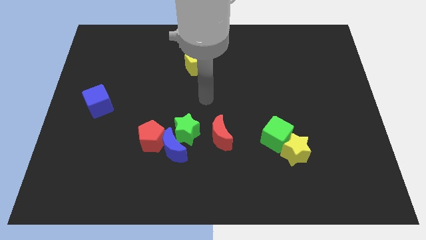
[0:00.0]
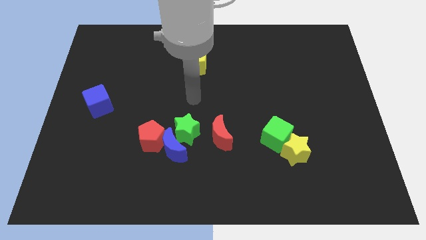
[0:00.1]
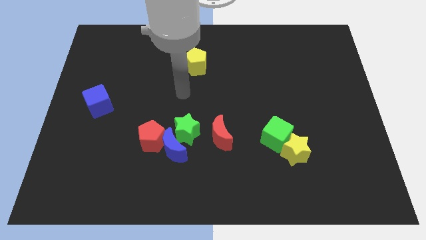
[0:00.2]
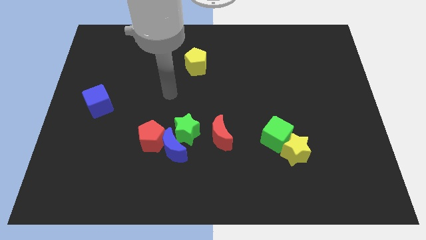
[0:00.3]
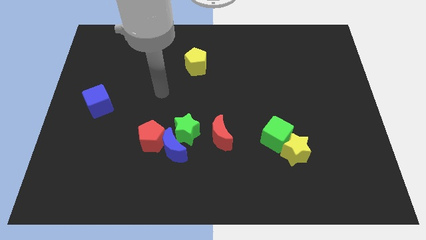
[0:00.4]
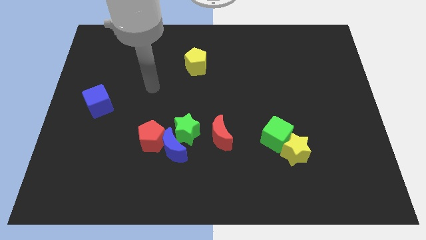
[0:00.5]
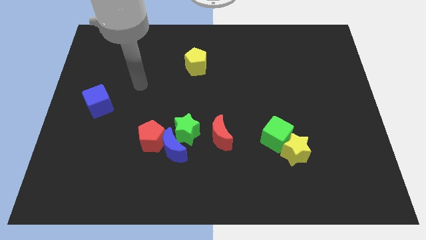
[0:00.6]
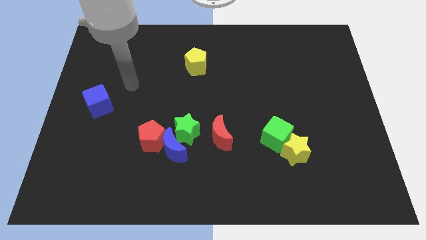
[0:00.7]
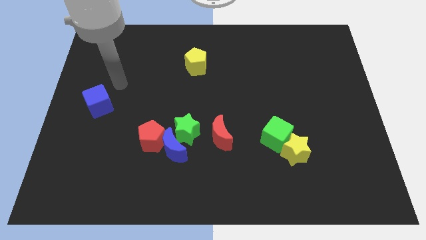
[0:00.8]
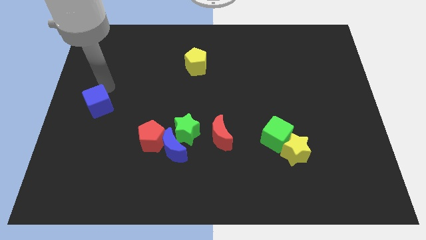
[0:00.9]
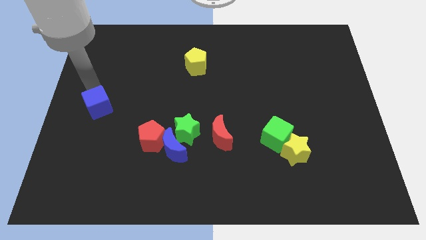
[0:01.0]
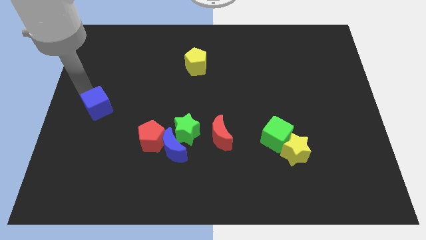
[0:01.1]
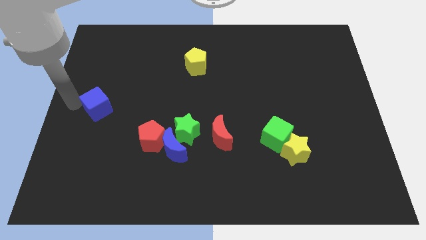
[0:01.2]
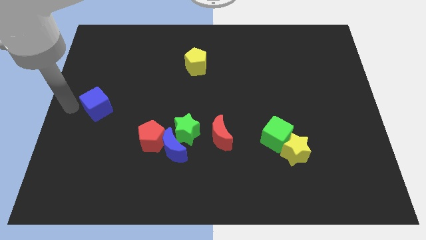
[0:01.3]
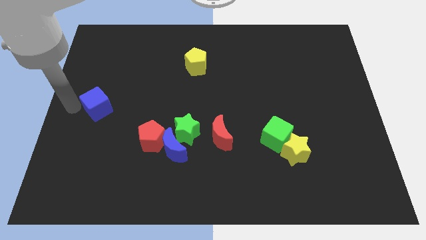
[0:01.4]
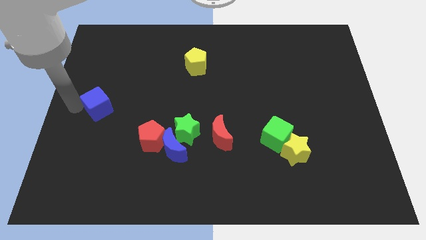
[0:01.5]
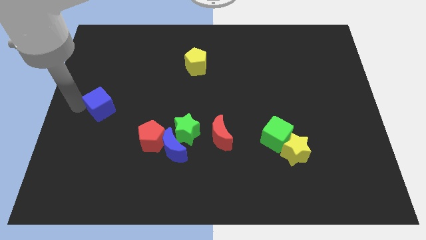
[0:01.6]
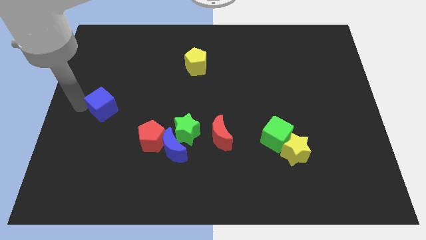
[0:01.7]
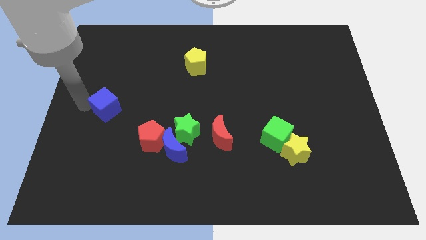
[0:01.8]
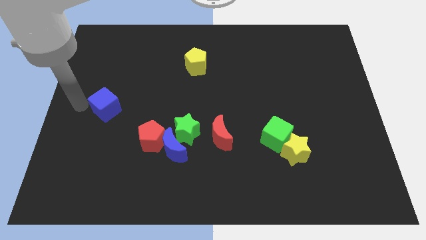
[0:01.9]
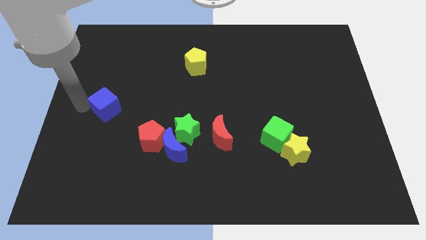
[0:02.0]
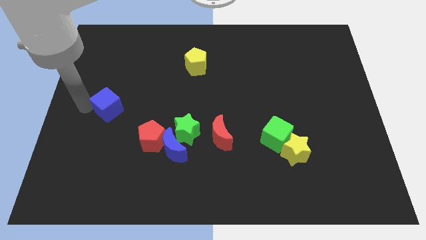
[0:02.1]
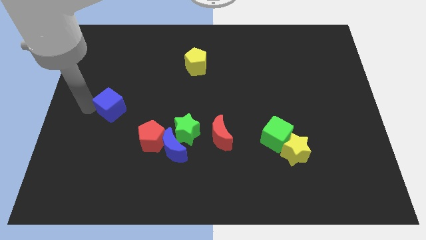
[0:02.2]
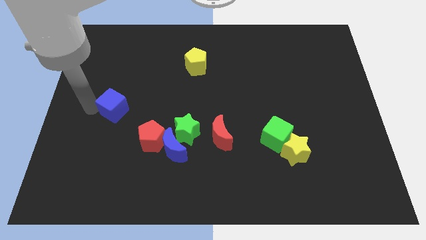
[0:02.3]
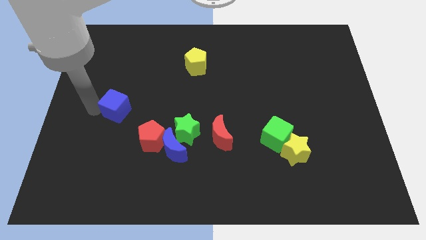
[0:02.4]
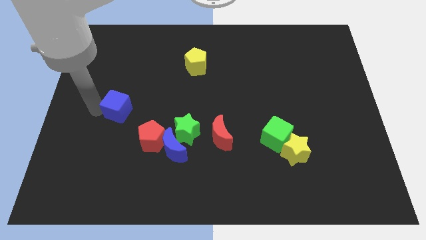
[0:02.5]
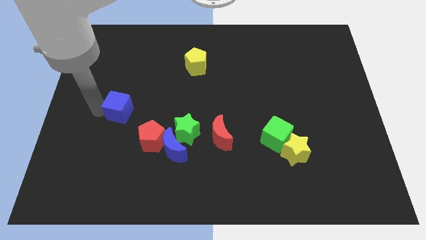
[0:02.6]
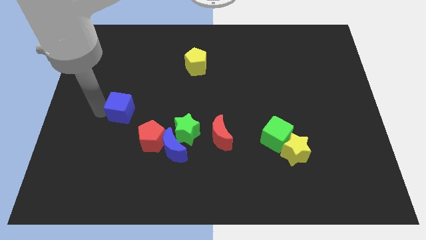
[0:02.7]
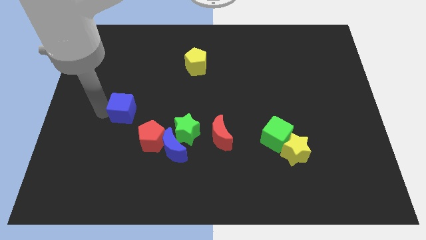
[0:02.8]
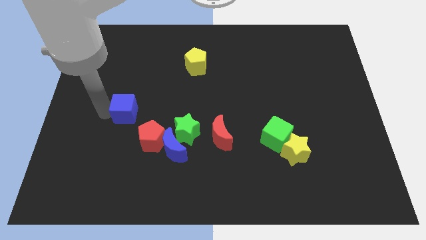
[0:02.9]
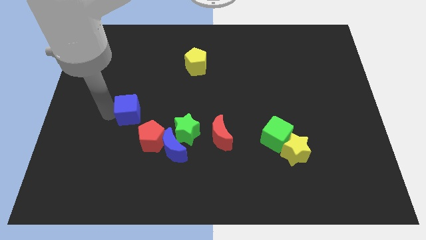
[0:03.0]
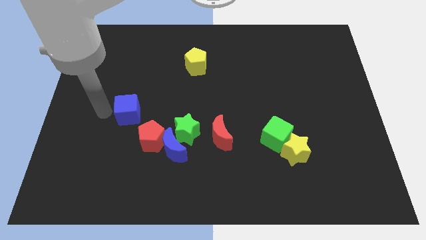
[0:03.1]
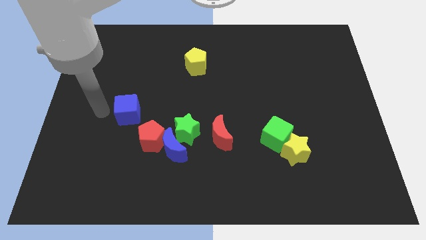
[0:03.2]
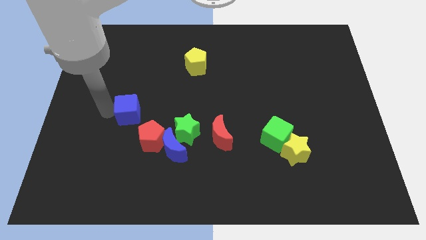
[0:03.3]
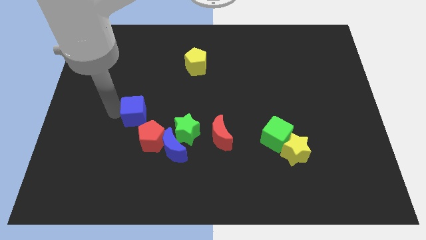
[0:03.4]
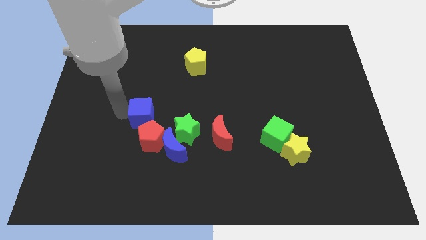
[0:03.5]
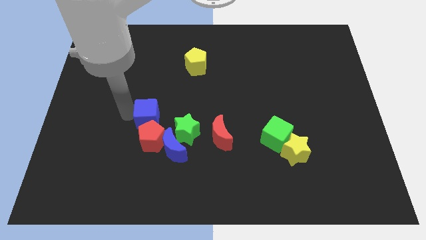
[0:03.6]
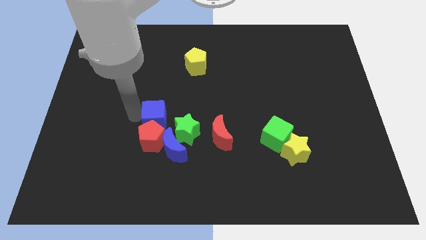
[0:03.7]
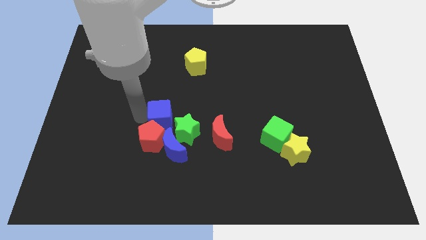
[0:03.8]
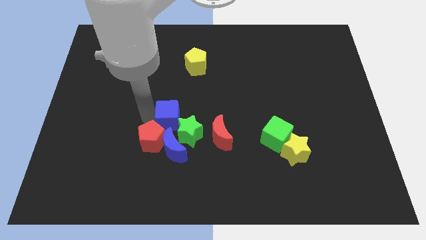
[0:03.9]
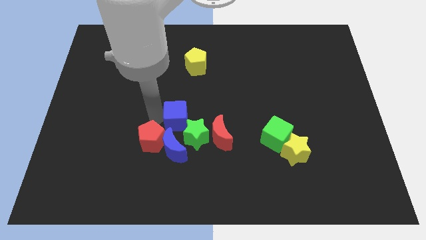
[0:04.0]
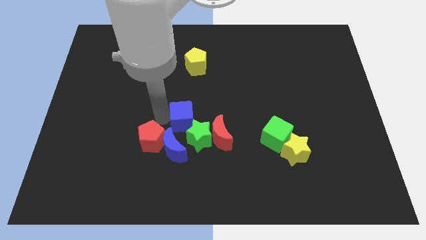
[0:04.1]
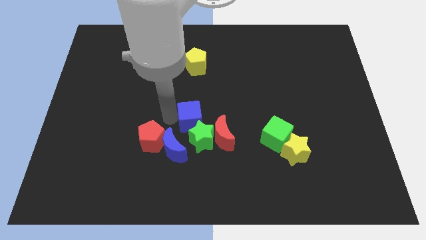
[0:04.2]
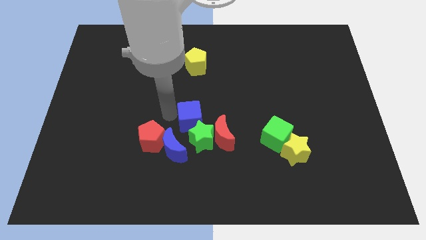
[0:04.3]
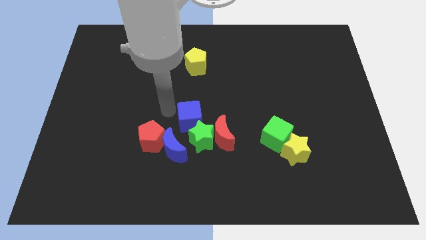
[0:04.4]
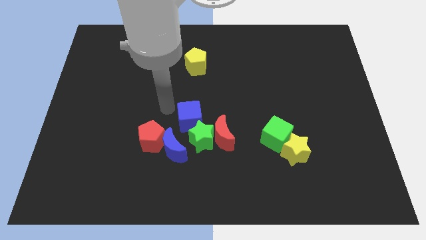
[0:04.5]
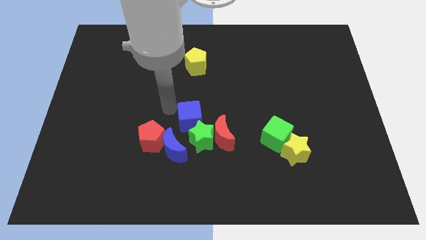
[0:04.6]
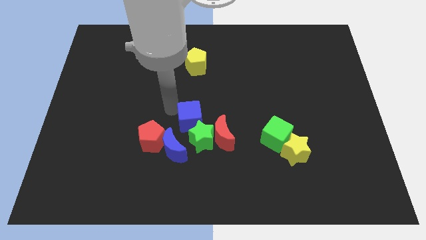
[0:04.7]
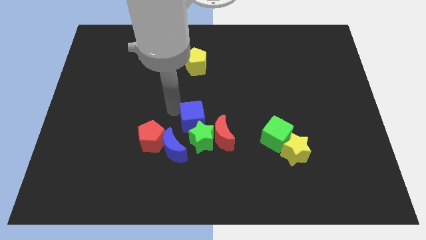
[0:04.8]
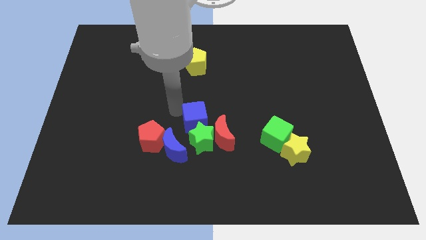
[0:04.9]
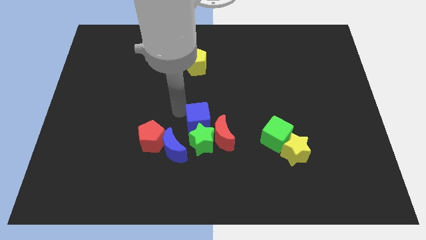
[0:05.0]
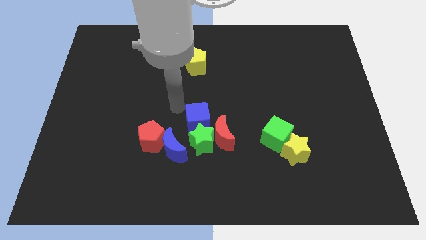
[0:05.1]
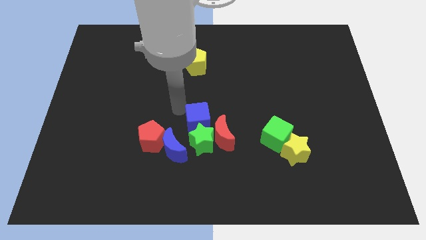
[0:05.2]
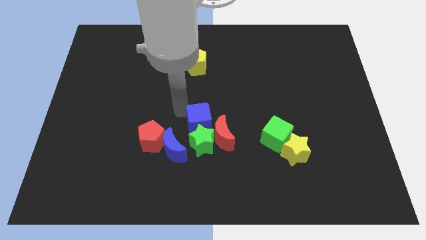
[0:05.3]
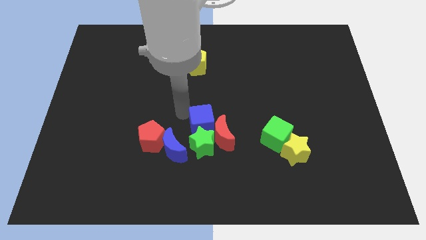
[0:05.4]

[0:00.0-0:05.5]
slide the blue cube to the red moon

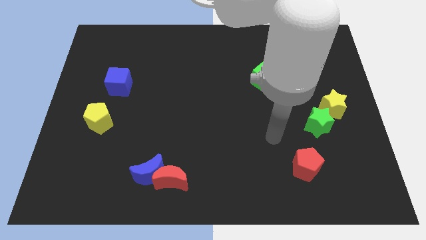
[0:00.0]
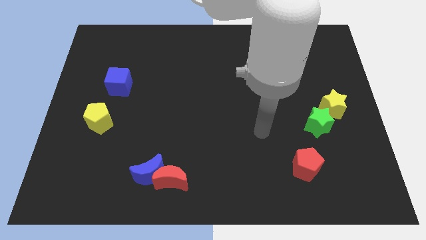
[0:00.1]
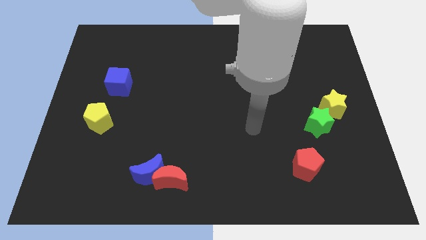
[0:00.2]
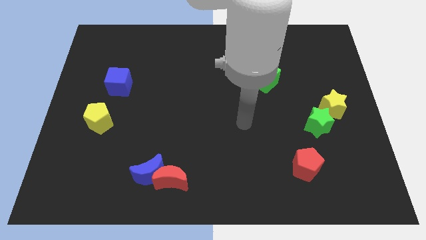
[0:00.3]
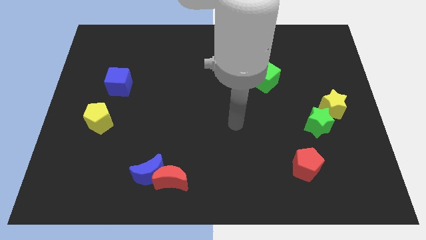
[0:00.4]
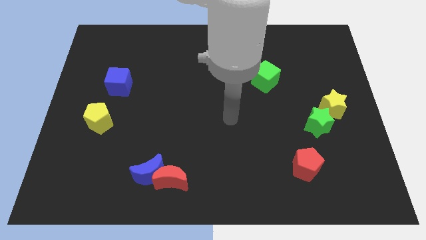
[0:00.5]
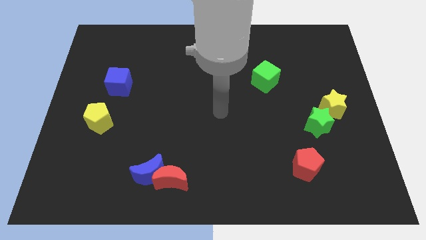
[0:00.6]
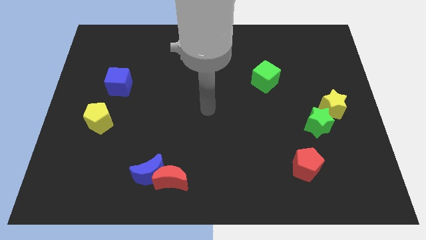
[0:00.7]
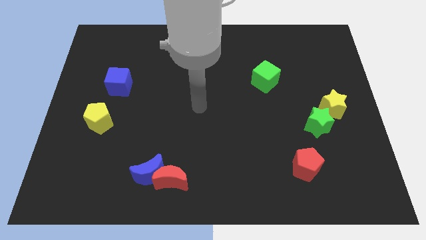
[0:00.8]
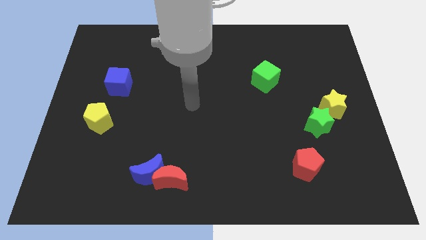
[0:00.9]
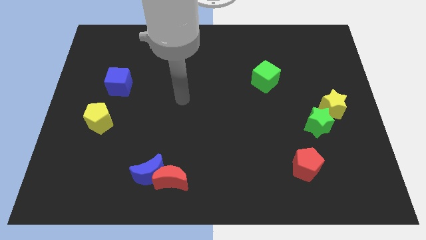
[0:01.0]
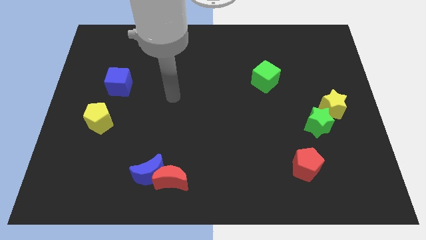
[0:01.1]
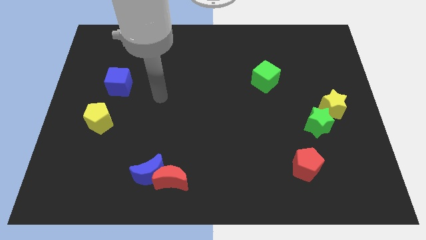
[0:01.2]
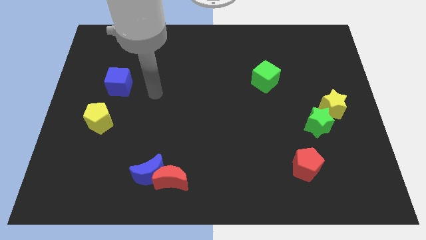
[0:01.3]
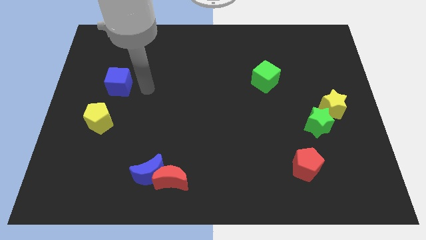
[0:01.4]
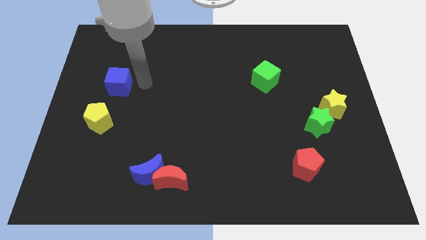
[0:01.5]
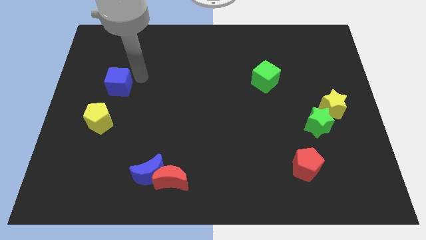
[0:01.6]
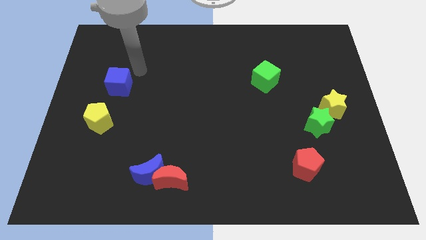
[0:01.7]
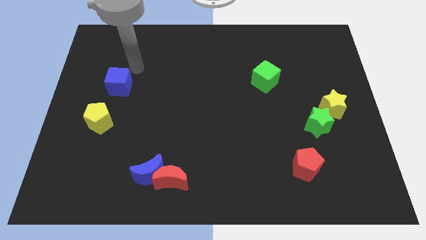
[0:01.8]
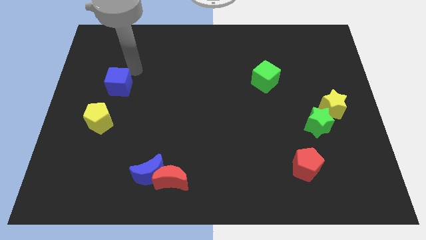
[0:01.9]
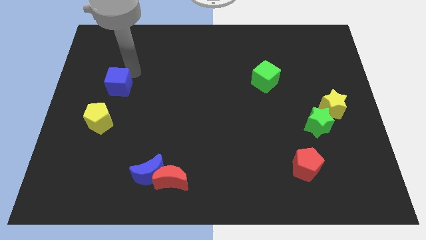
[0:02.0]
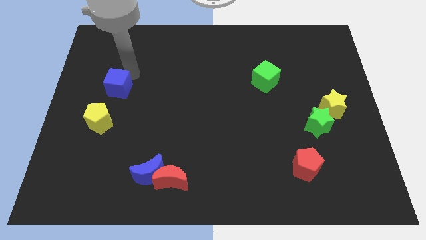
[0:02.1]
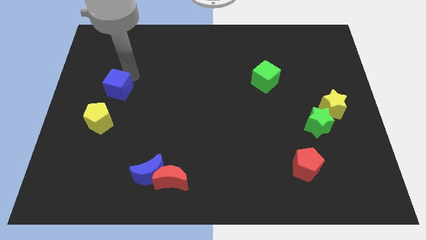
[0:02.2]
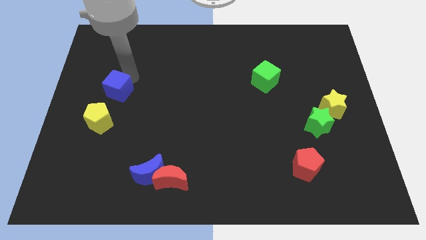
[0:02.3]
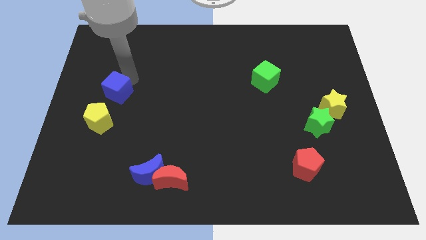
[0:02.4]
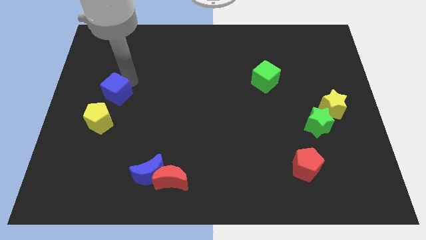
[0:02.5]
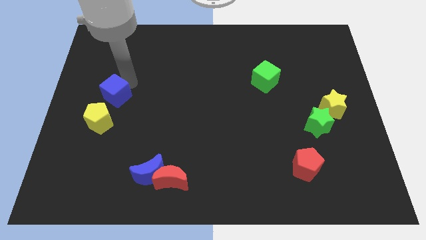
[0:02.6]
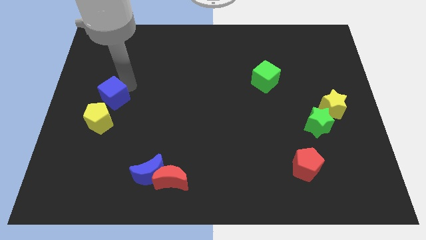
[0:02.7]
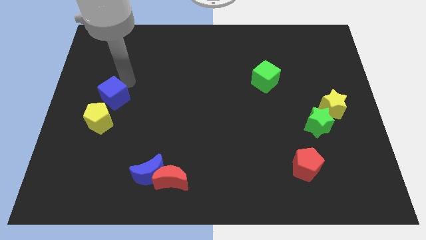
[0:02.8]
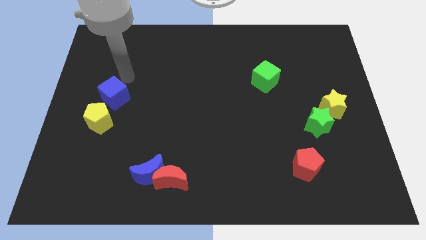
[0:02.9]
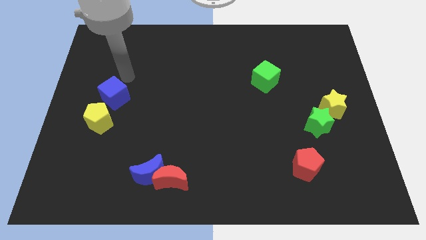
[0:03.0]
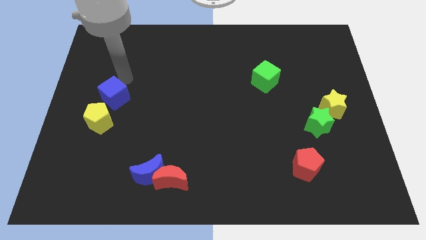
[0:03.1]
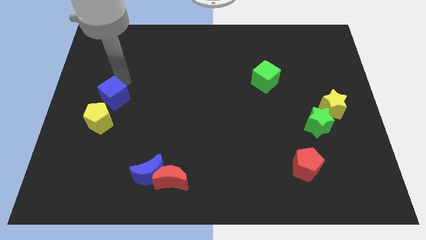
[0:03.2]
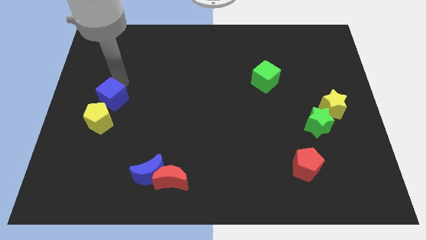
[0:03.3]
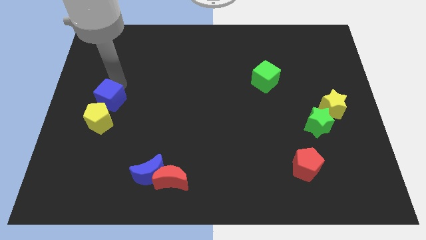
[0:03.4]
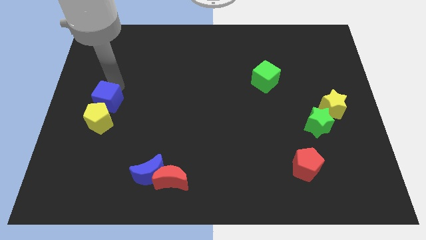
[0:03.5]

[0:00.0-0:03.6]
put the blue cube to the yellow pentagon
